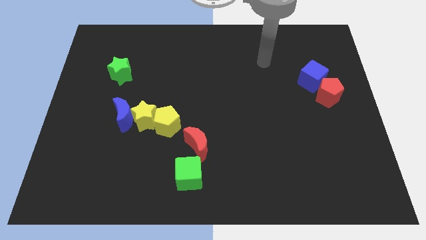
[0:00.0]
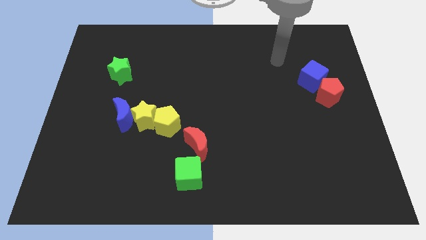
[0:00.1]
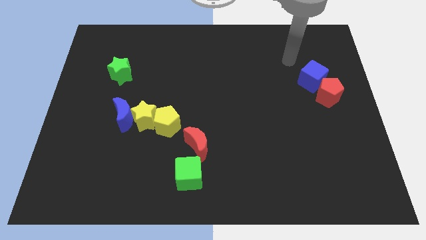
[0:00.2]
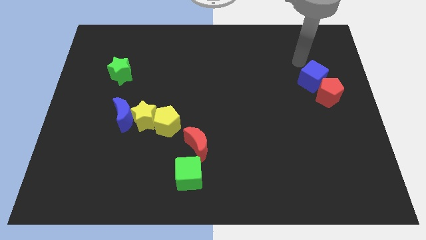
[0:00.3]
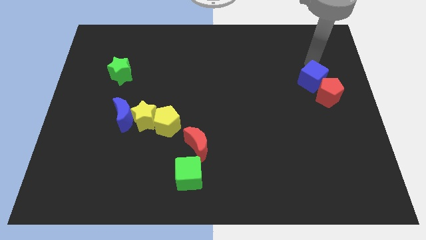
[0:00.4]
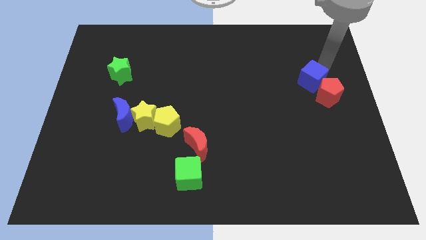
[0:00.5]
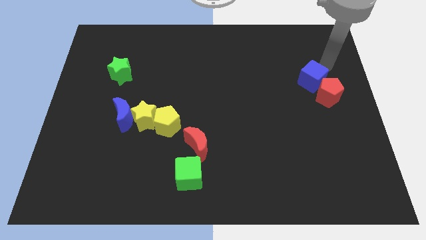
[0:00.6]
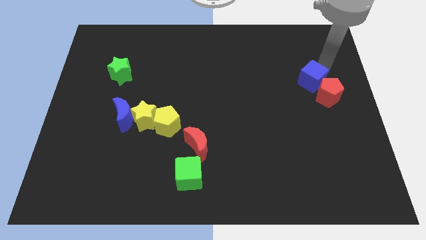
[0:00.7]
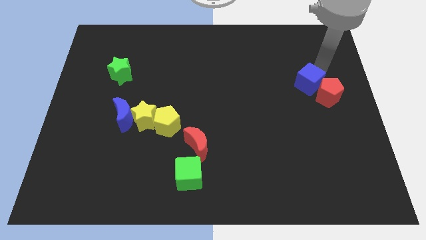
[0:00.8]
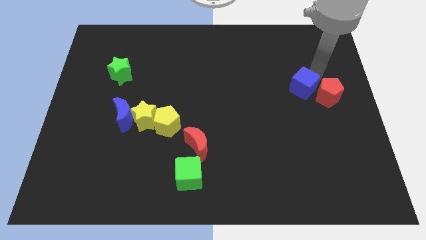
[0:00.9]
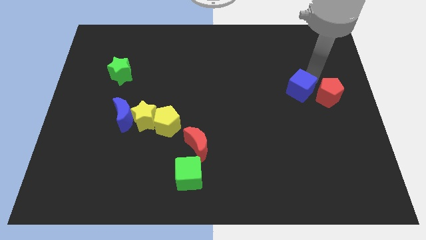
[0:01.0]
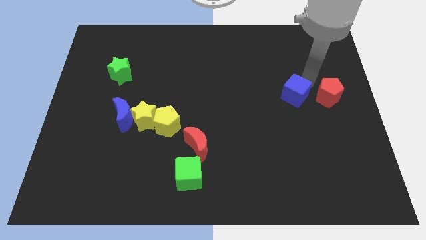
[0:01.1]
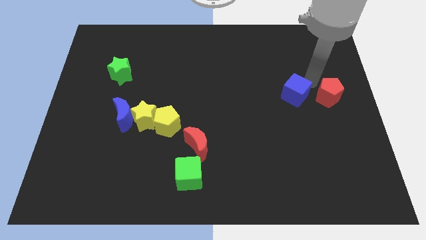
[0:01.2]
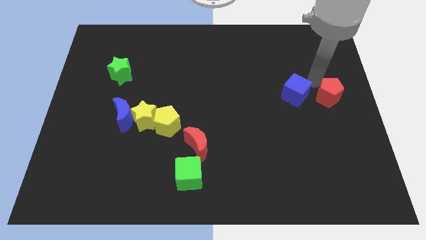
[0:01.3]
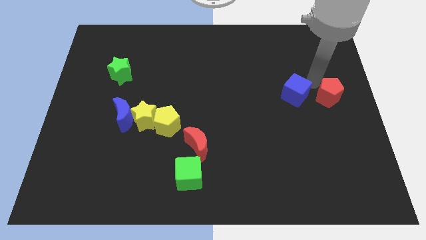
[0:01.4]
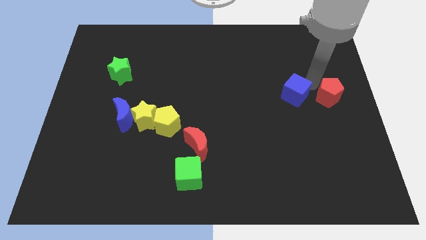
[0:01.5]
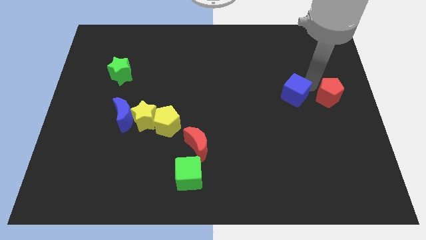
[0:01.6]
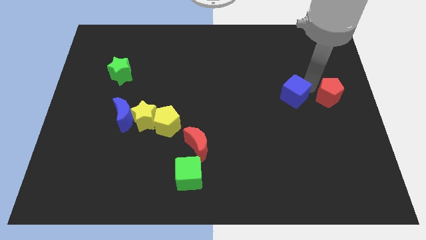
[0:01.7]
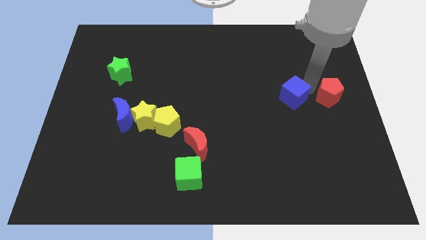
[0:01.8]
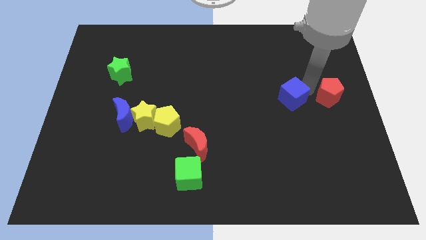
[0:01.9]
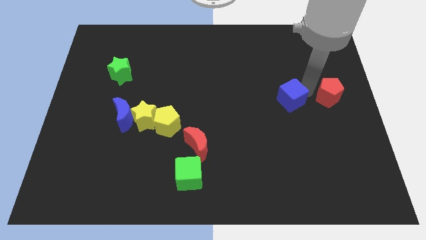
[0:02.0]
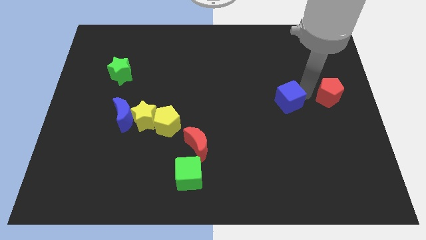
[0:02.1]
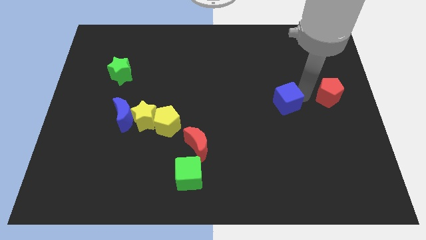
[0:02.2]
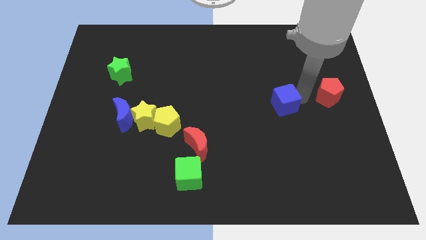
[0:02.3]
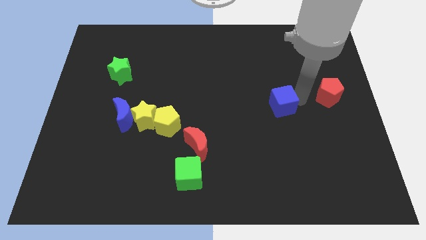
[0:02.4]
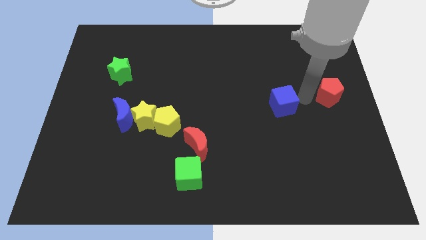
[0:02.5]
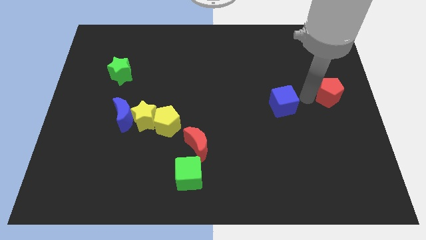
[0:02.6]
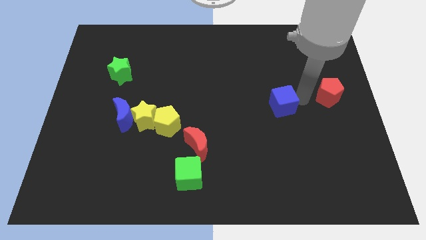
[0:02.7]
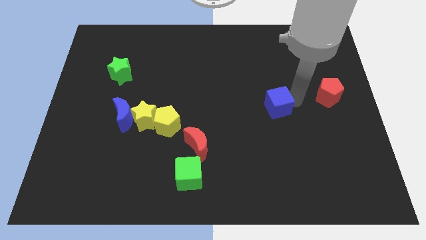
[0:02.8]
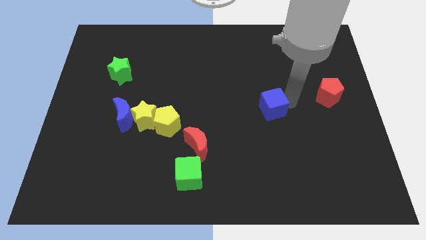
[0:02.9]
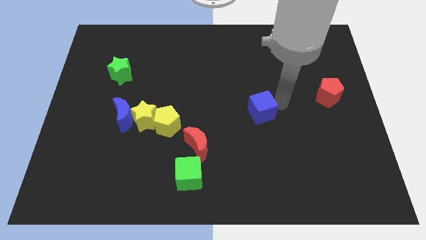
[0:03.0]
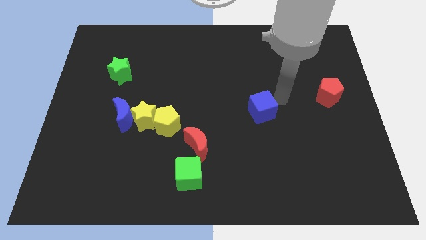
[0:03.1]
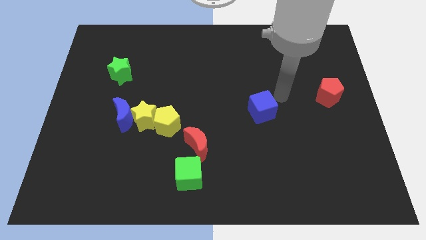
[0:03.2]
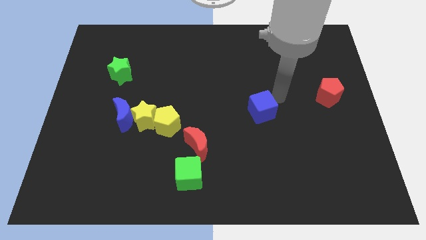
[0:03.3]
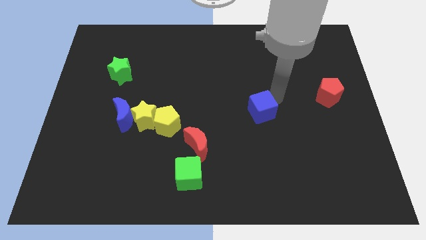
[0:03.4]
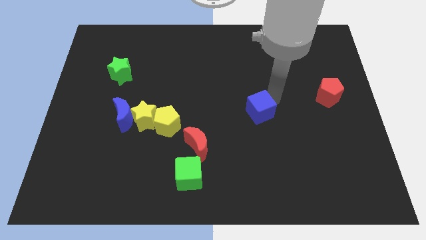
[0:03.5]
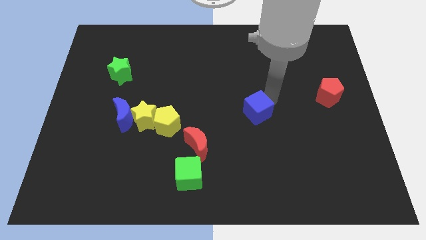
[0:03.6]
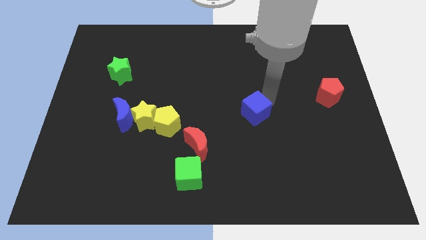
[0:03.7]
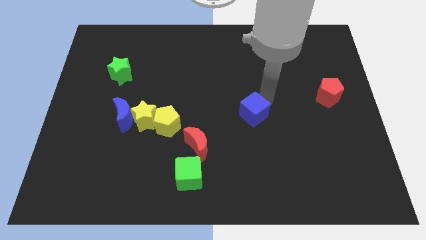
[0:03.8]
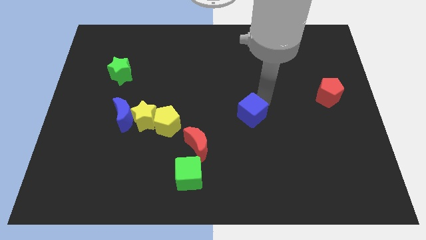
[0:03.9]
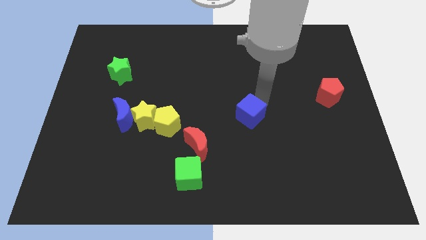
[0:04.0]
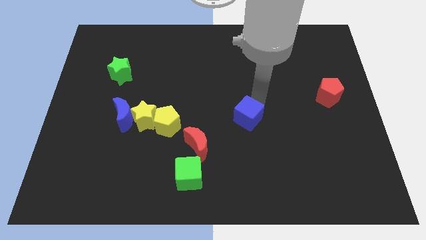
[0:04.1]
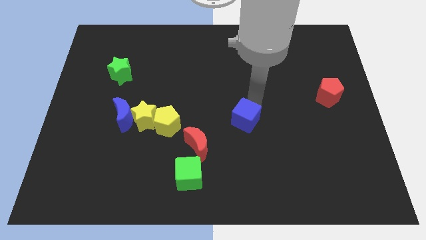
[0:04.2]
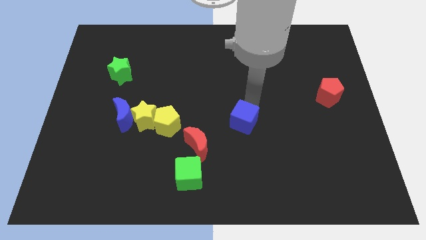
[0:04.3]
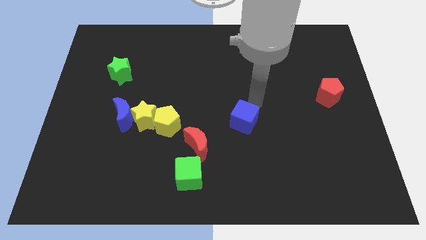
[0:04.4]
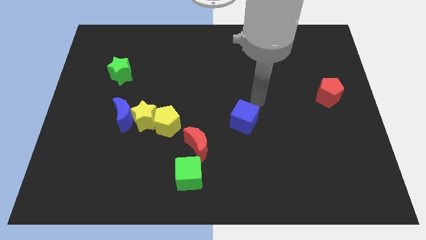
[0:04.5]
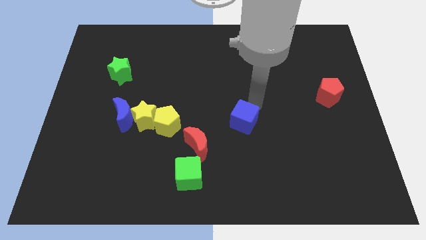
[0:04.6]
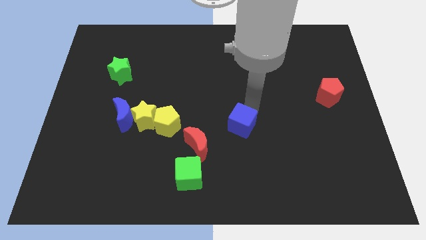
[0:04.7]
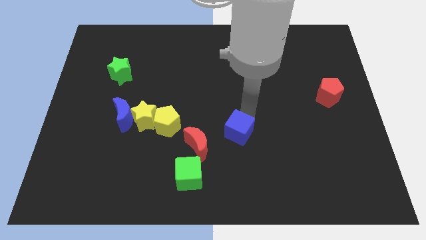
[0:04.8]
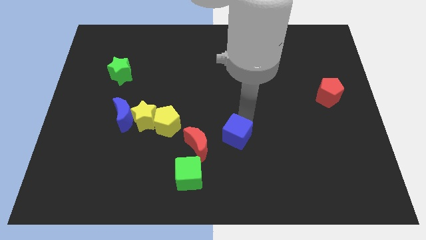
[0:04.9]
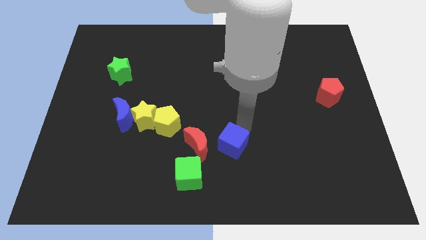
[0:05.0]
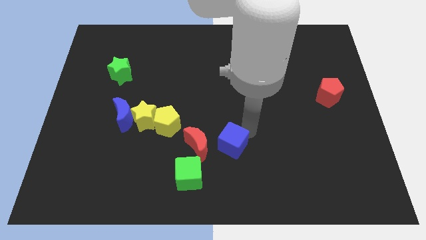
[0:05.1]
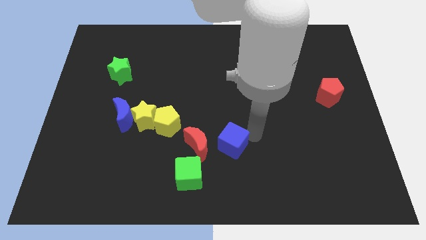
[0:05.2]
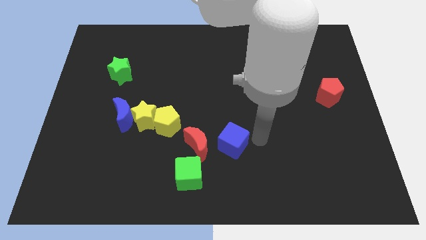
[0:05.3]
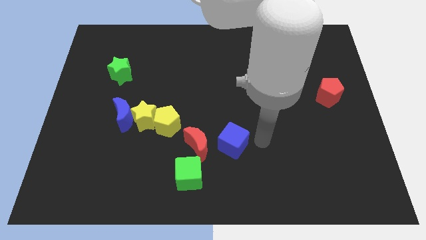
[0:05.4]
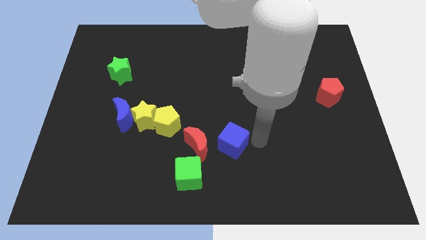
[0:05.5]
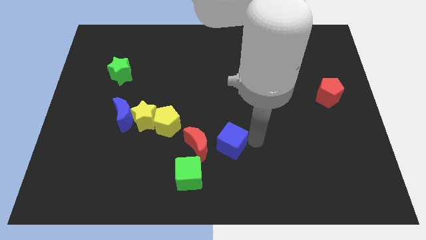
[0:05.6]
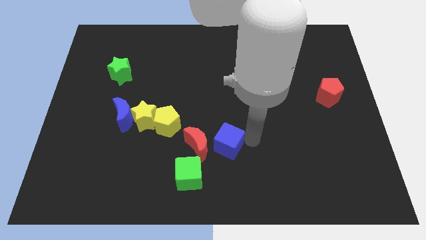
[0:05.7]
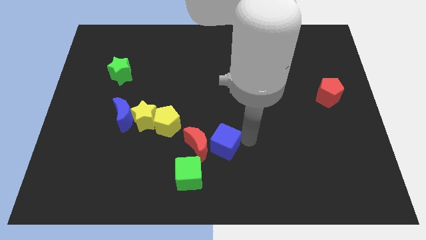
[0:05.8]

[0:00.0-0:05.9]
put the blue cube next to the red moon

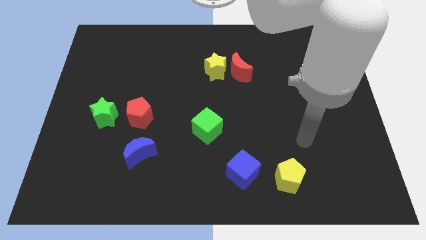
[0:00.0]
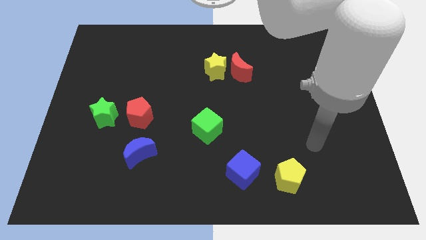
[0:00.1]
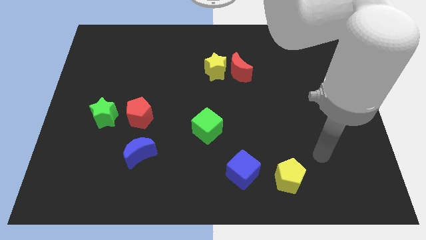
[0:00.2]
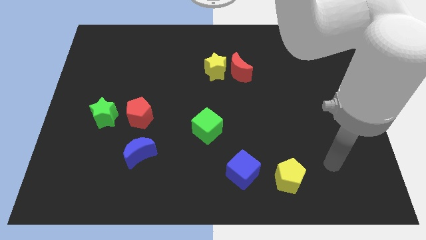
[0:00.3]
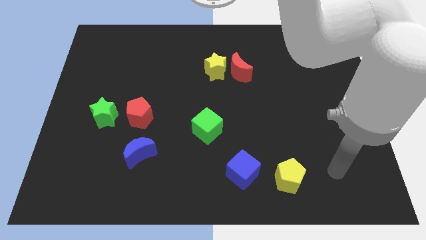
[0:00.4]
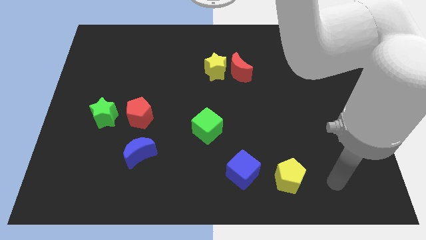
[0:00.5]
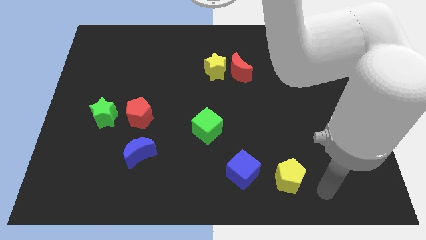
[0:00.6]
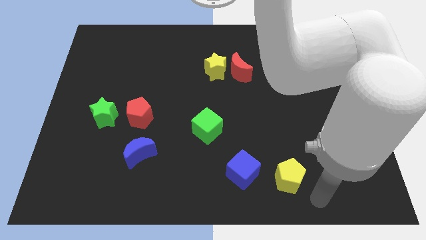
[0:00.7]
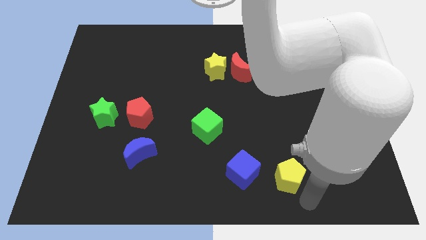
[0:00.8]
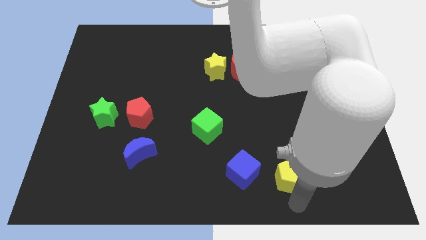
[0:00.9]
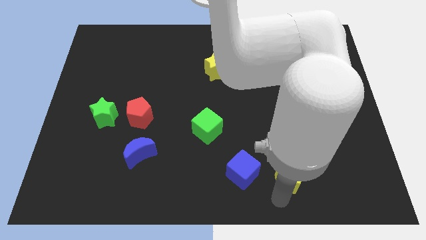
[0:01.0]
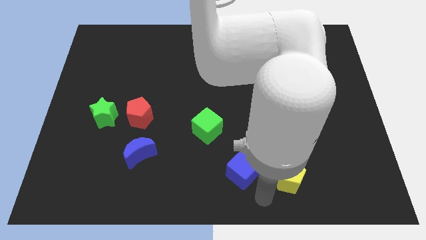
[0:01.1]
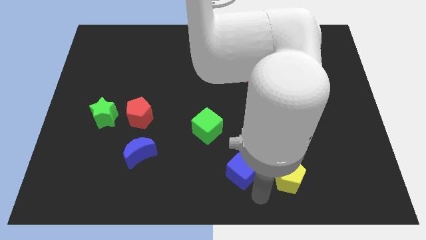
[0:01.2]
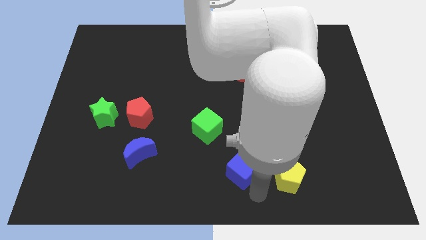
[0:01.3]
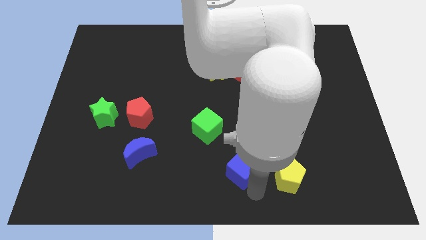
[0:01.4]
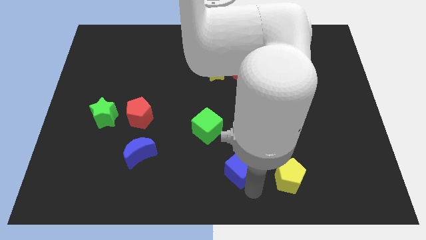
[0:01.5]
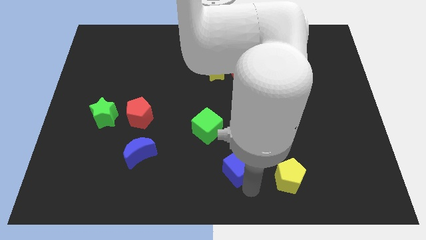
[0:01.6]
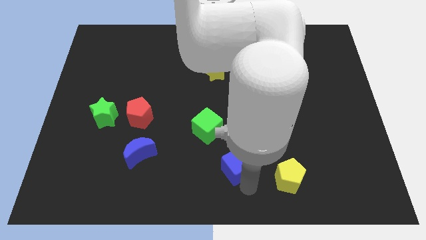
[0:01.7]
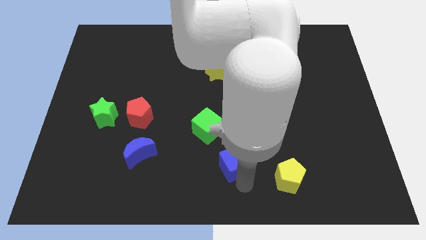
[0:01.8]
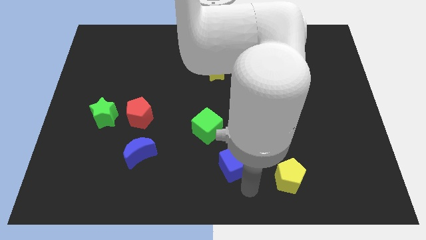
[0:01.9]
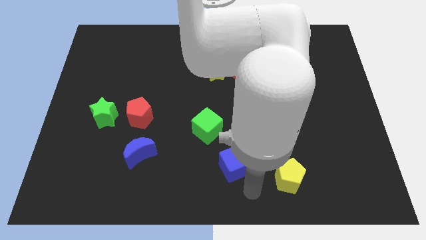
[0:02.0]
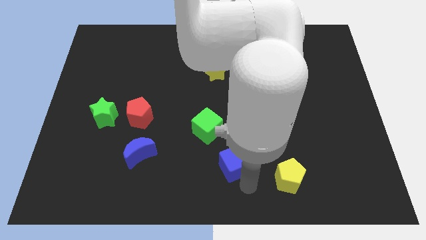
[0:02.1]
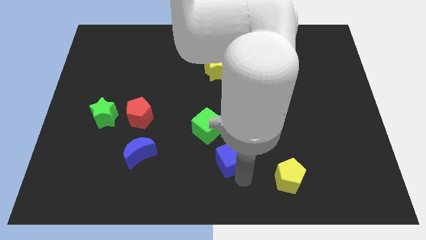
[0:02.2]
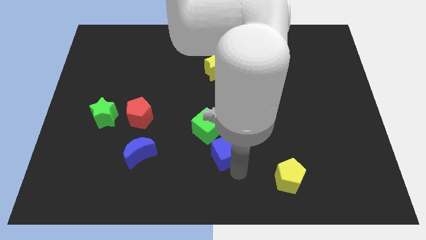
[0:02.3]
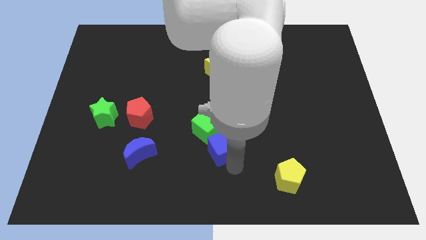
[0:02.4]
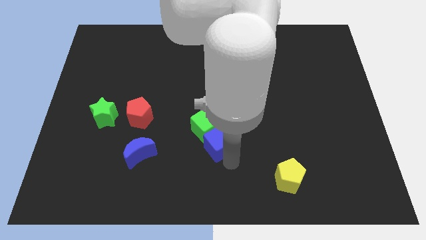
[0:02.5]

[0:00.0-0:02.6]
move the blue cube next to the green cube
